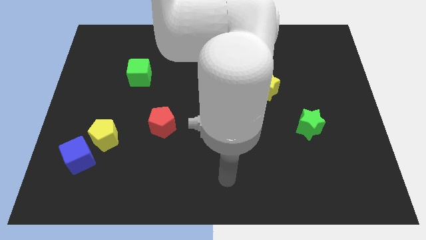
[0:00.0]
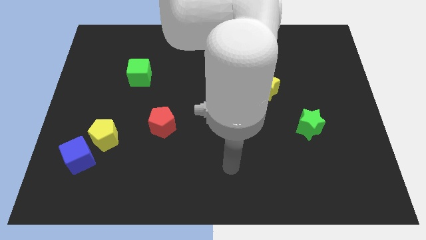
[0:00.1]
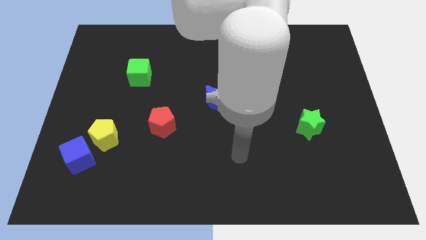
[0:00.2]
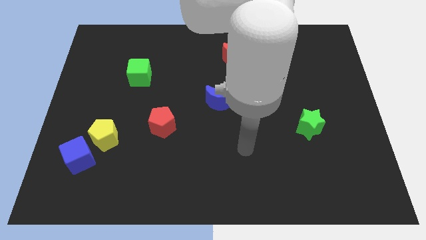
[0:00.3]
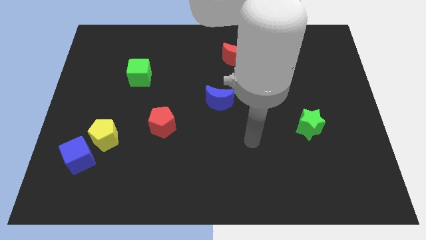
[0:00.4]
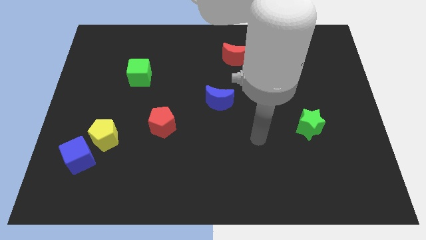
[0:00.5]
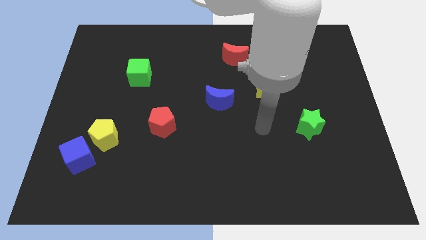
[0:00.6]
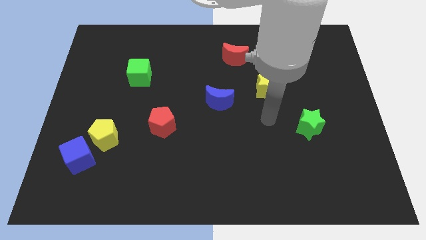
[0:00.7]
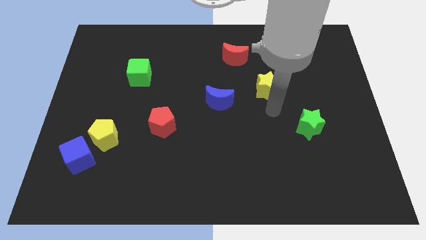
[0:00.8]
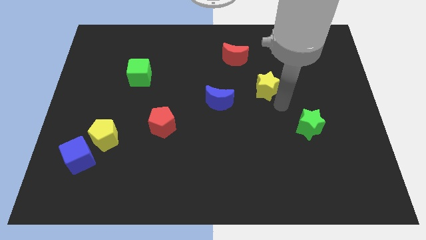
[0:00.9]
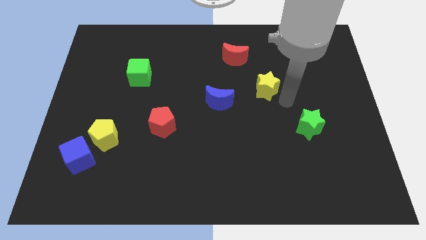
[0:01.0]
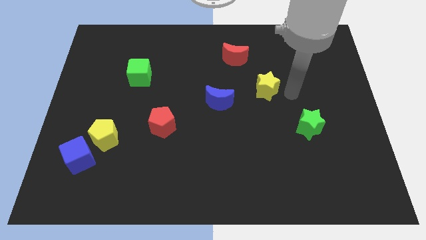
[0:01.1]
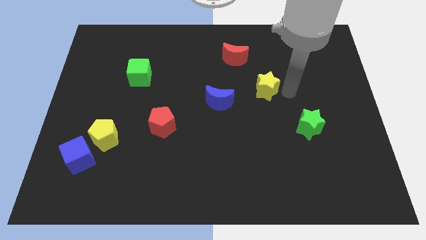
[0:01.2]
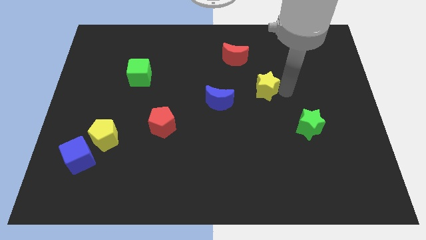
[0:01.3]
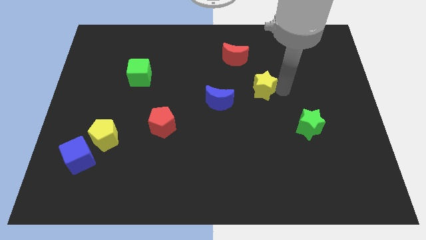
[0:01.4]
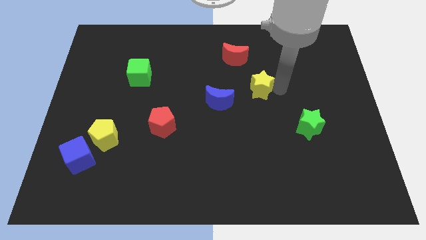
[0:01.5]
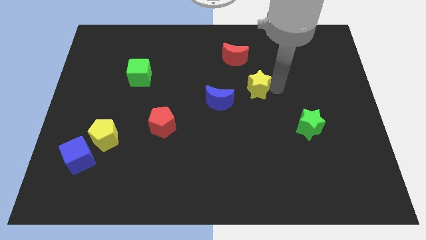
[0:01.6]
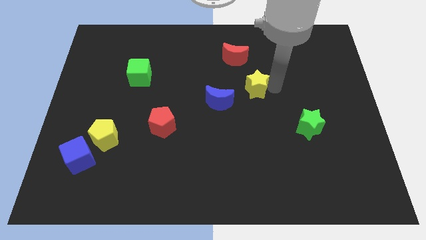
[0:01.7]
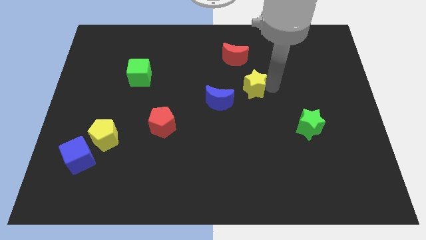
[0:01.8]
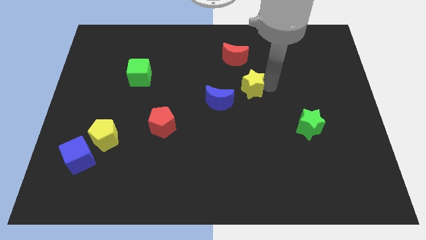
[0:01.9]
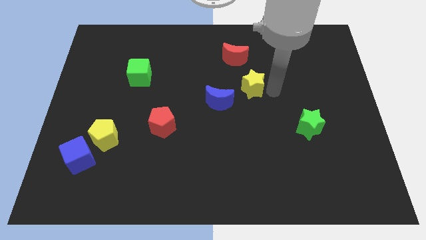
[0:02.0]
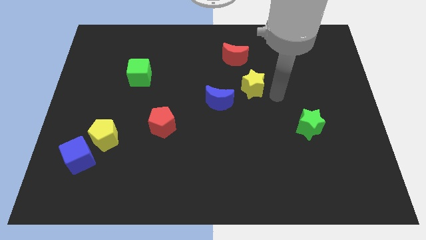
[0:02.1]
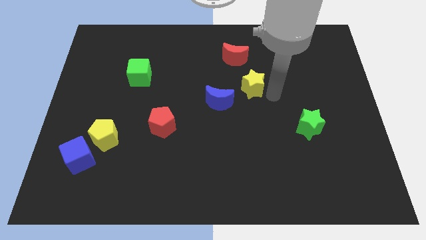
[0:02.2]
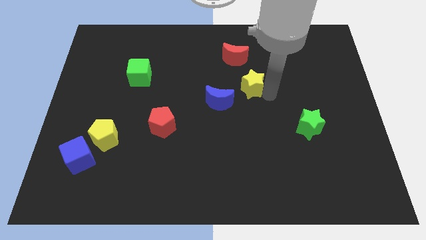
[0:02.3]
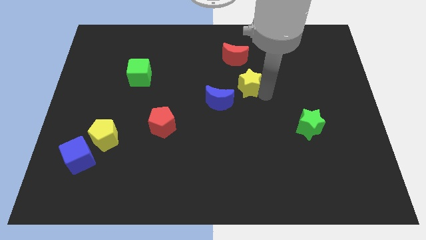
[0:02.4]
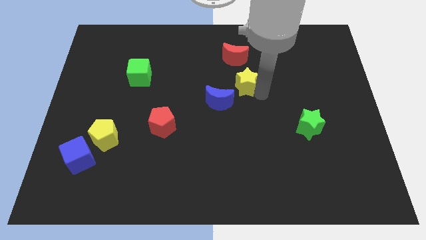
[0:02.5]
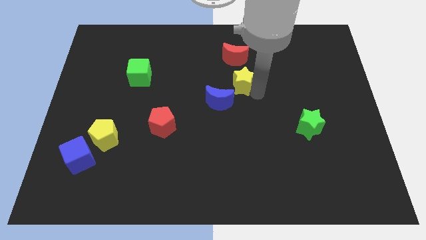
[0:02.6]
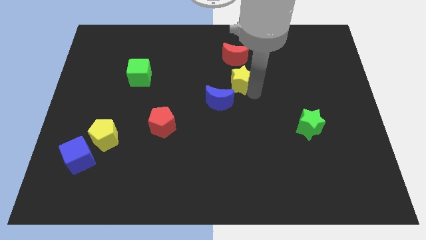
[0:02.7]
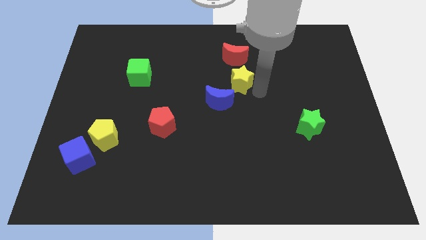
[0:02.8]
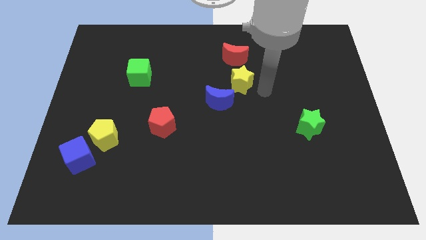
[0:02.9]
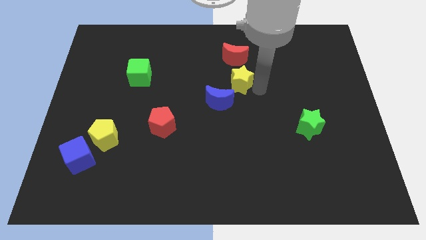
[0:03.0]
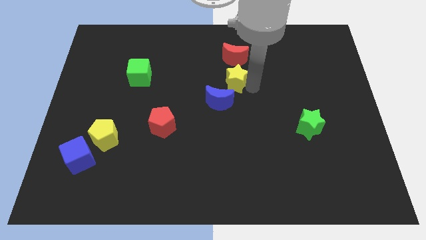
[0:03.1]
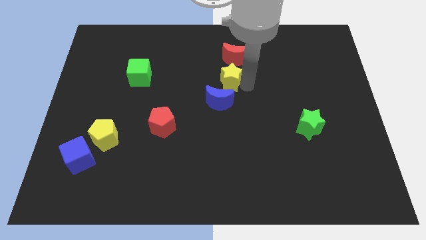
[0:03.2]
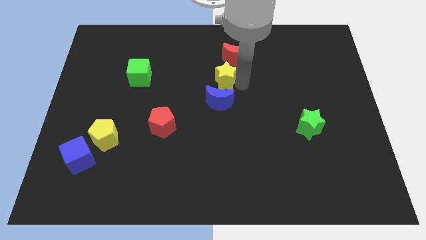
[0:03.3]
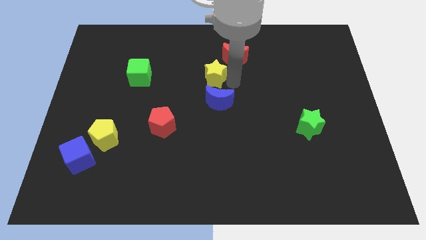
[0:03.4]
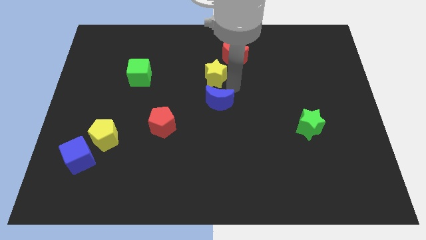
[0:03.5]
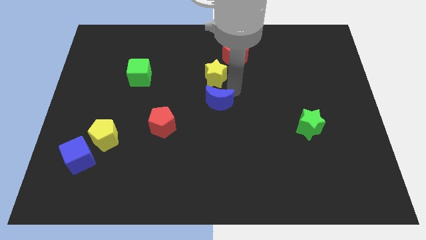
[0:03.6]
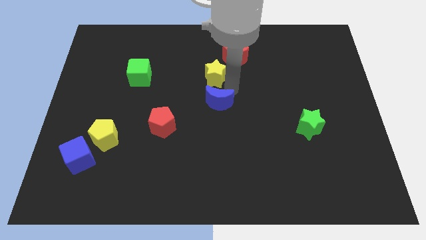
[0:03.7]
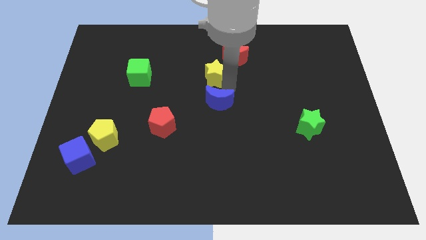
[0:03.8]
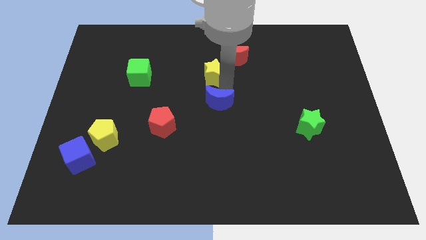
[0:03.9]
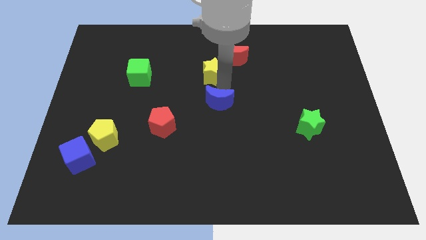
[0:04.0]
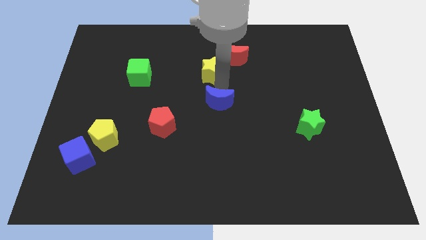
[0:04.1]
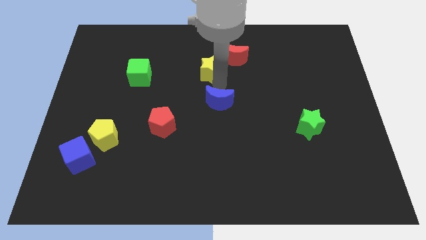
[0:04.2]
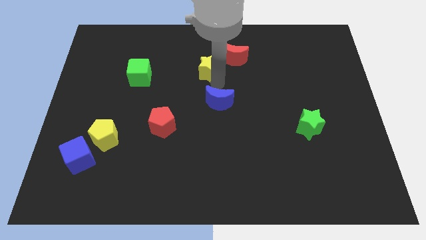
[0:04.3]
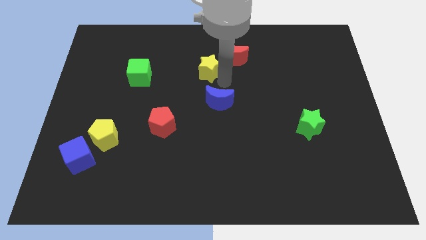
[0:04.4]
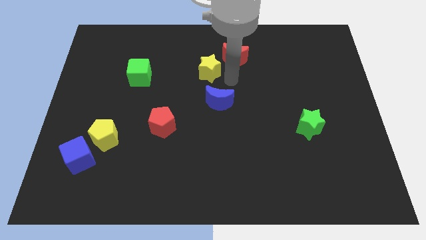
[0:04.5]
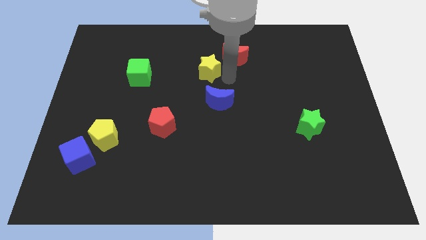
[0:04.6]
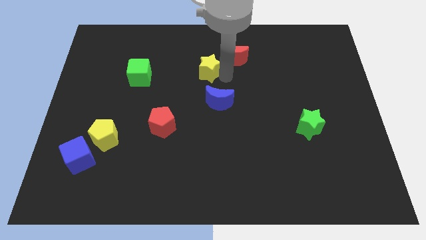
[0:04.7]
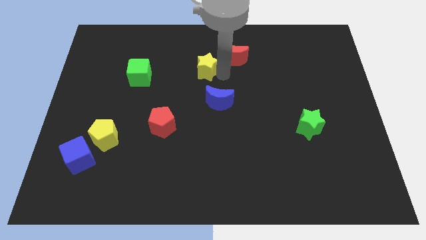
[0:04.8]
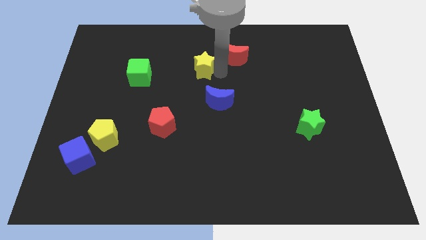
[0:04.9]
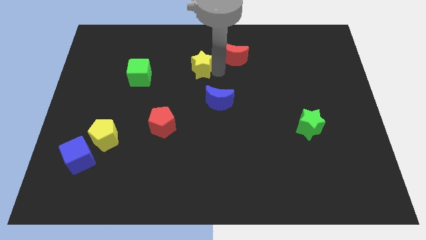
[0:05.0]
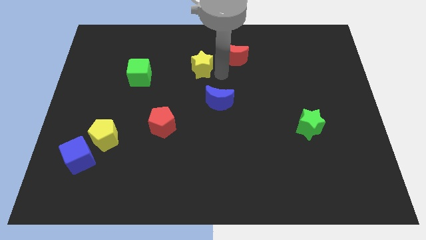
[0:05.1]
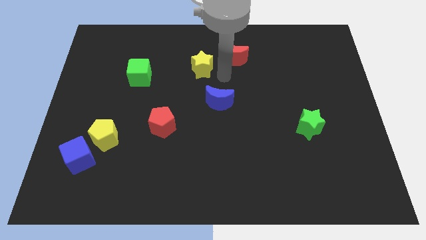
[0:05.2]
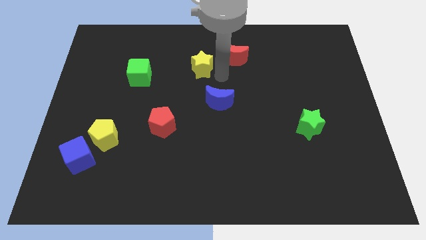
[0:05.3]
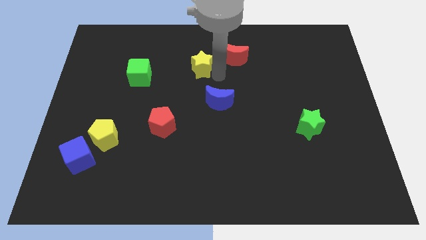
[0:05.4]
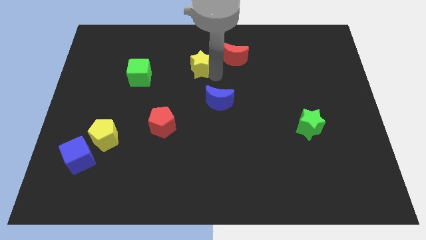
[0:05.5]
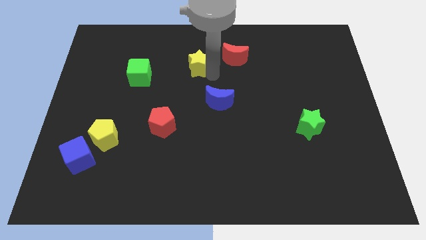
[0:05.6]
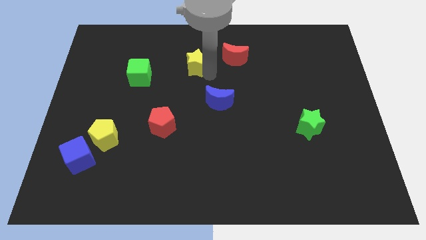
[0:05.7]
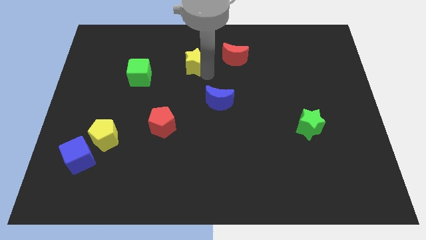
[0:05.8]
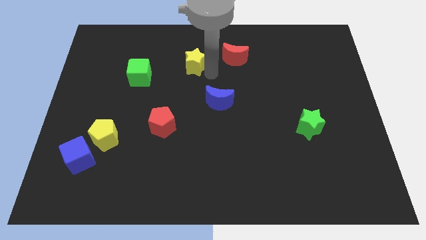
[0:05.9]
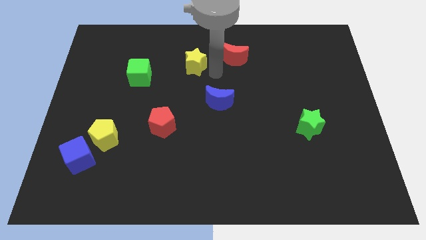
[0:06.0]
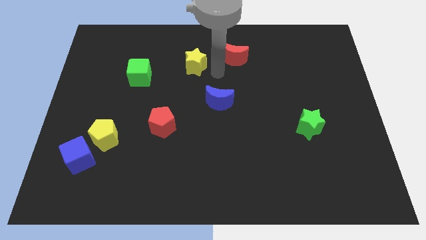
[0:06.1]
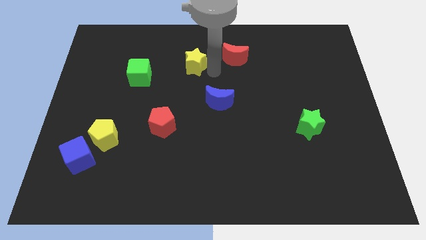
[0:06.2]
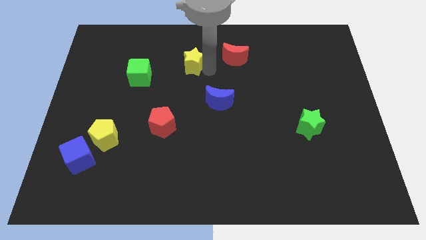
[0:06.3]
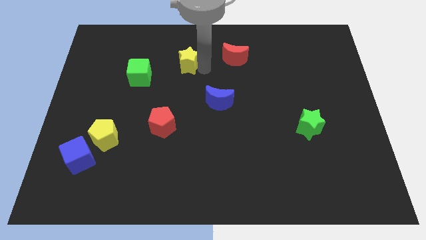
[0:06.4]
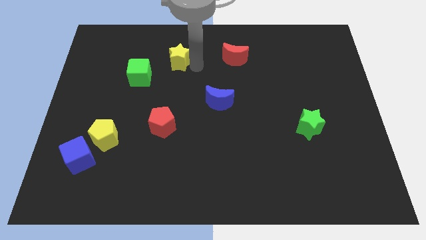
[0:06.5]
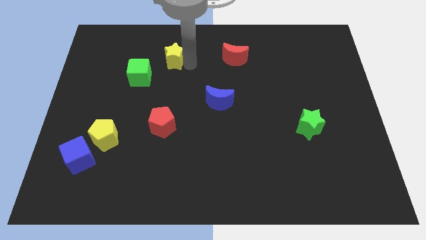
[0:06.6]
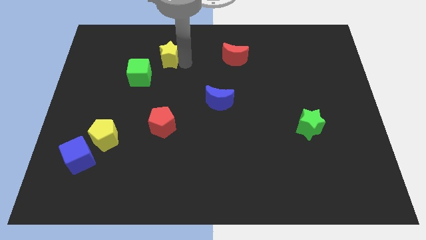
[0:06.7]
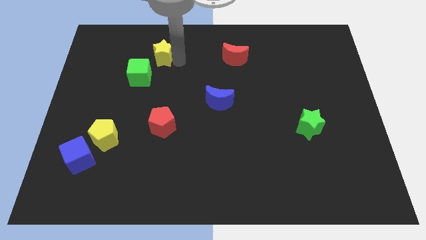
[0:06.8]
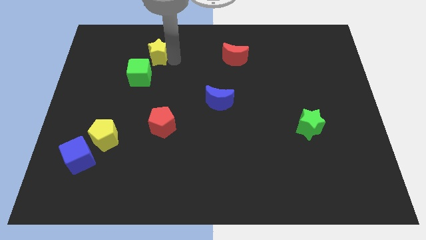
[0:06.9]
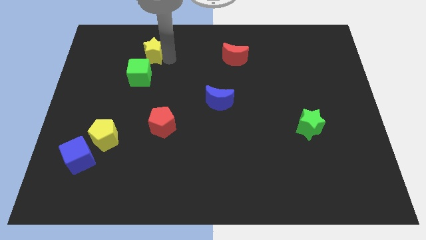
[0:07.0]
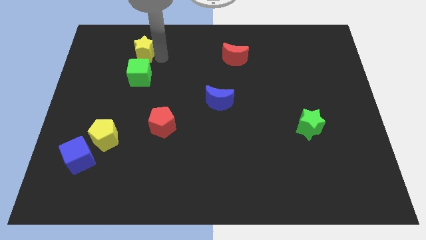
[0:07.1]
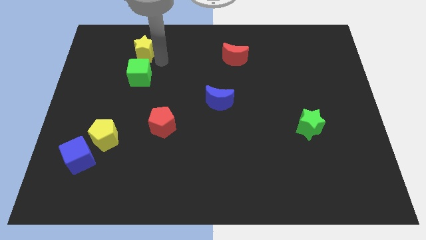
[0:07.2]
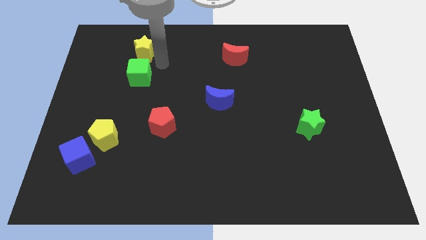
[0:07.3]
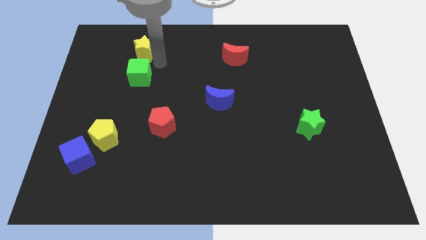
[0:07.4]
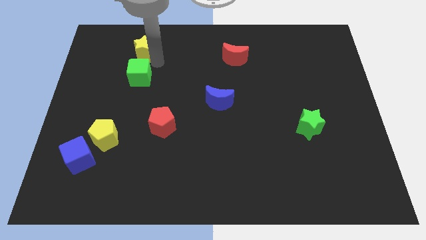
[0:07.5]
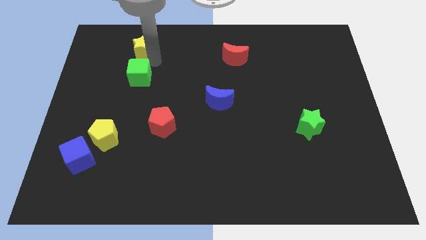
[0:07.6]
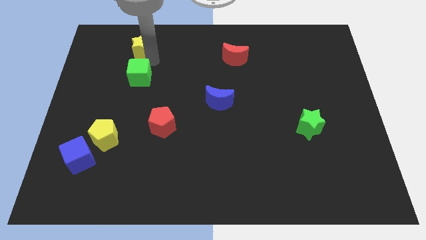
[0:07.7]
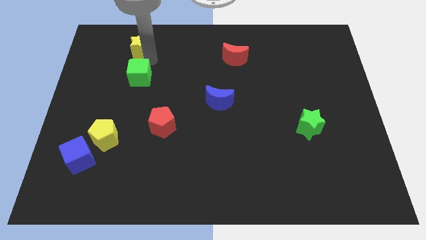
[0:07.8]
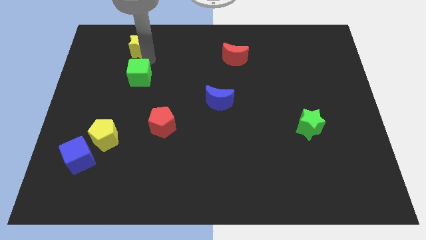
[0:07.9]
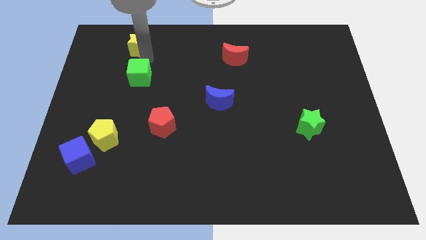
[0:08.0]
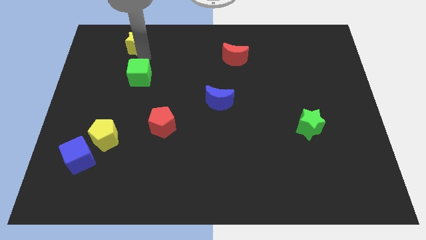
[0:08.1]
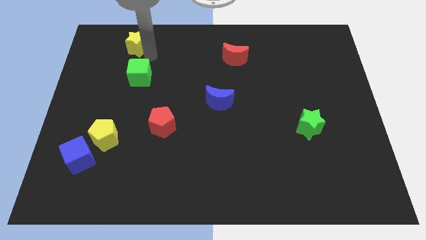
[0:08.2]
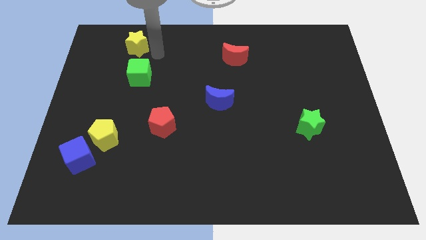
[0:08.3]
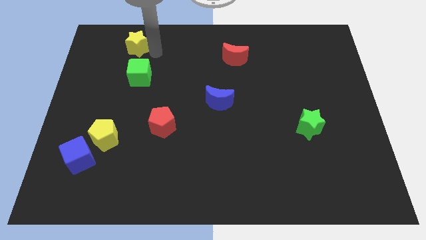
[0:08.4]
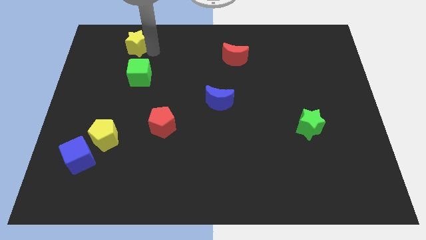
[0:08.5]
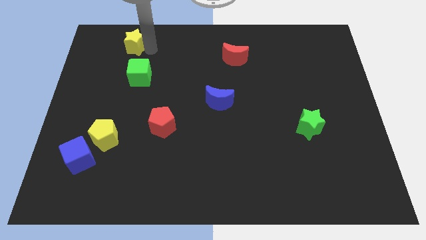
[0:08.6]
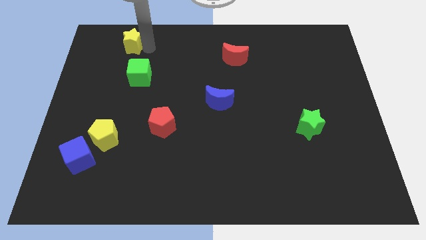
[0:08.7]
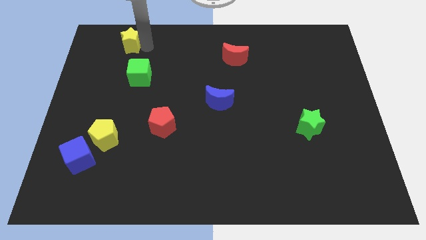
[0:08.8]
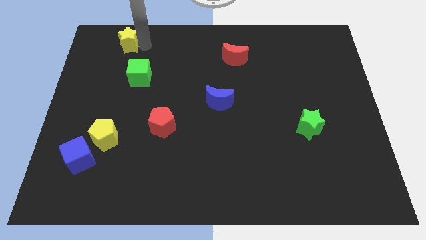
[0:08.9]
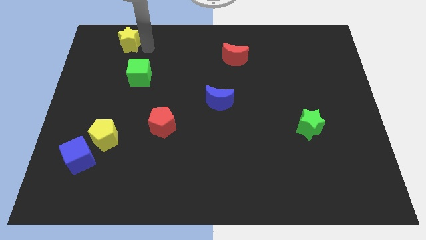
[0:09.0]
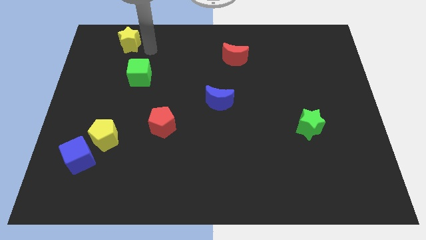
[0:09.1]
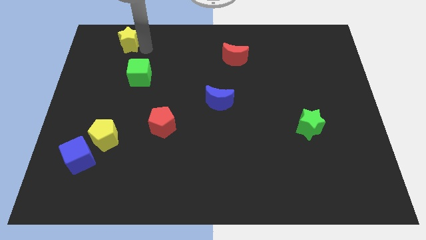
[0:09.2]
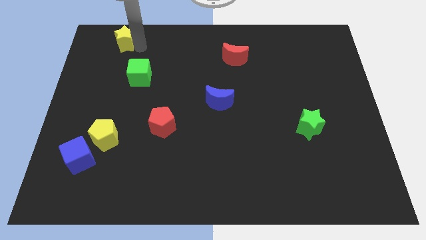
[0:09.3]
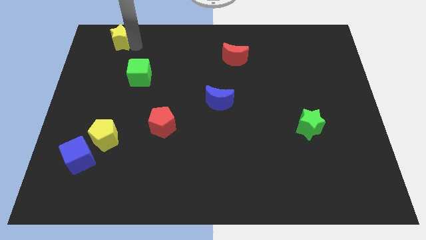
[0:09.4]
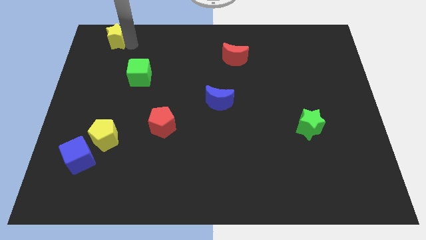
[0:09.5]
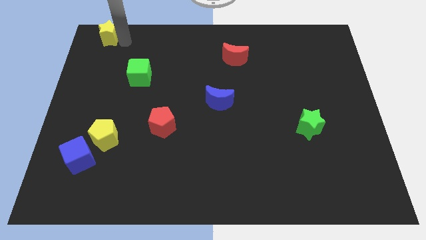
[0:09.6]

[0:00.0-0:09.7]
put the yellow star to the upper left corner
